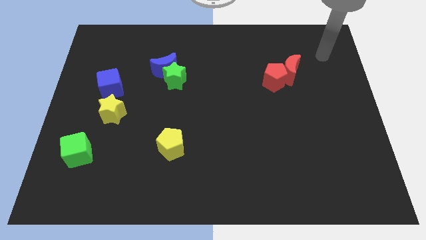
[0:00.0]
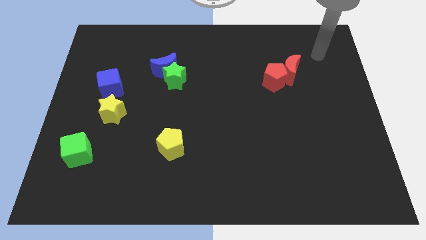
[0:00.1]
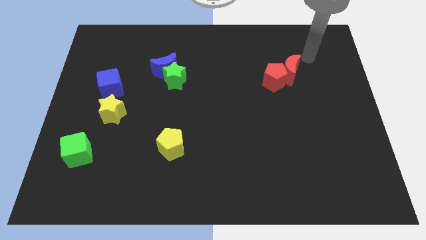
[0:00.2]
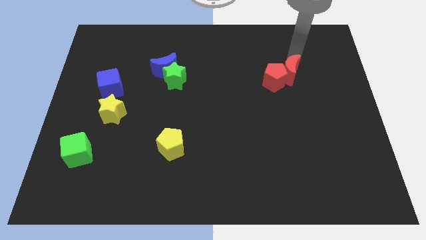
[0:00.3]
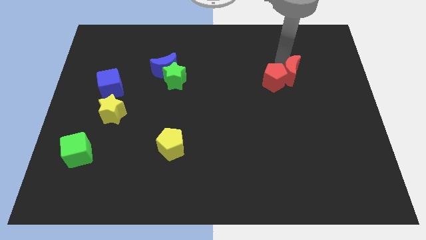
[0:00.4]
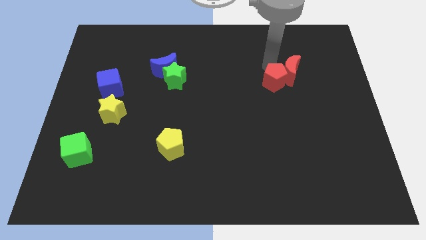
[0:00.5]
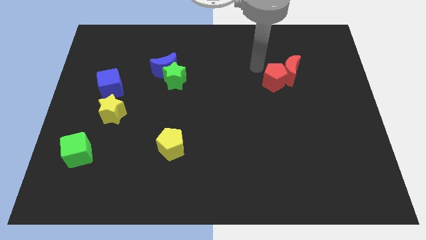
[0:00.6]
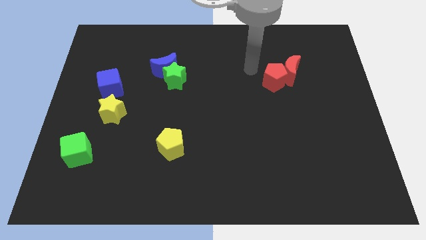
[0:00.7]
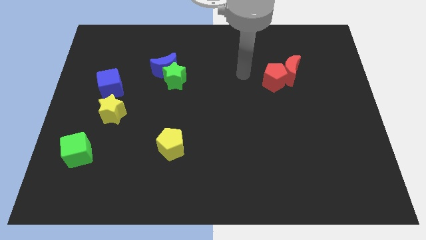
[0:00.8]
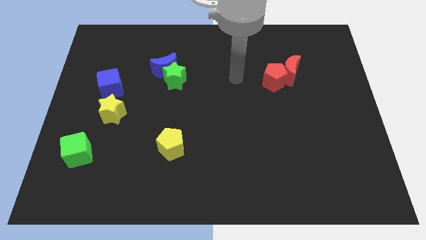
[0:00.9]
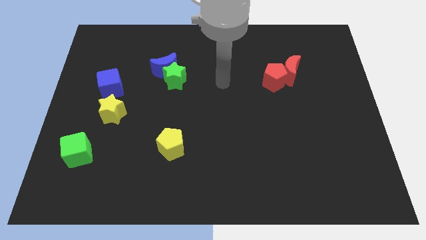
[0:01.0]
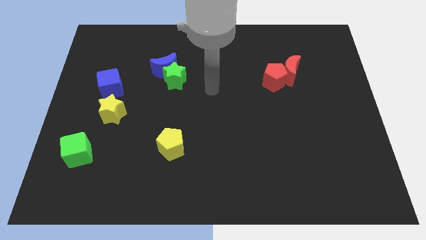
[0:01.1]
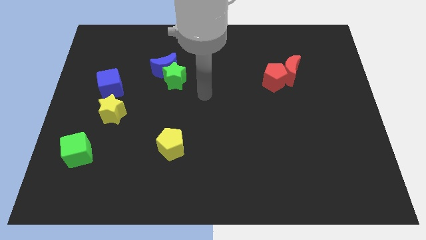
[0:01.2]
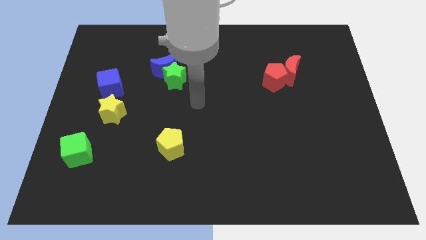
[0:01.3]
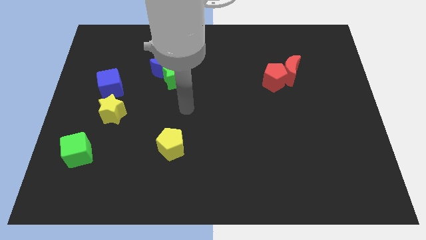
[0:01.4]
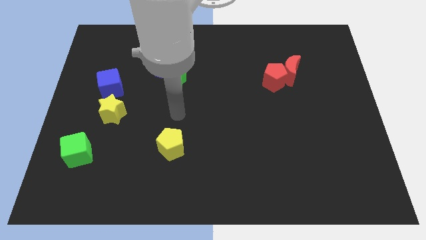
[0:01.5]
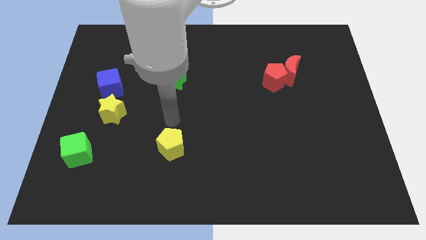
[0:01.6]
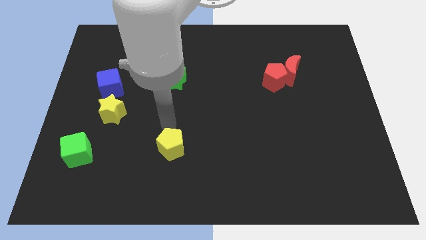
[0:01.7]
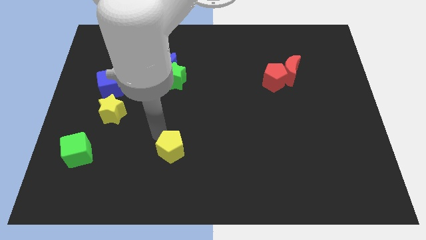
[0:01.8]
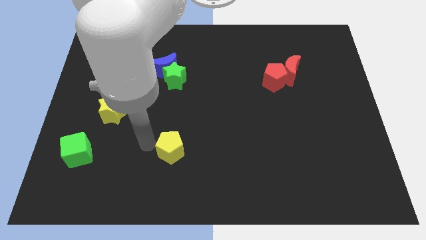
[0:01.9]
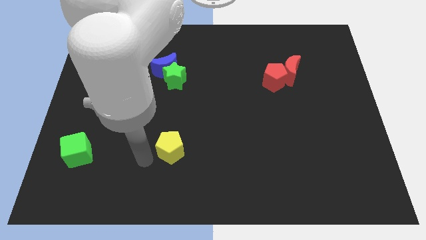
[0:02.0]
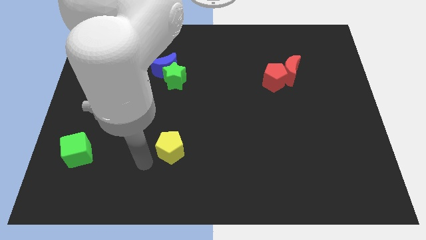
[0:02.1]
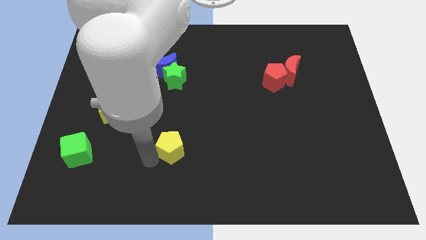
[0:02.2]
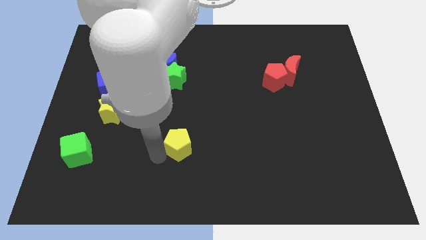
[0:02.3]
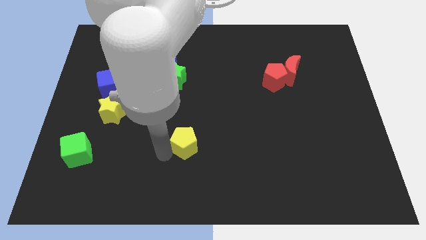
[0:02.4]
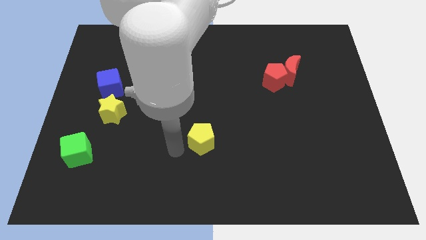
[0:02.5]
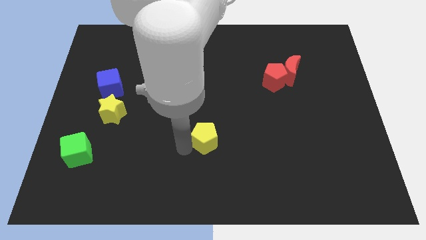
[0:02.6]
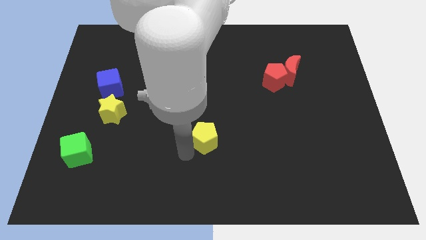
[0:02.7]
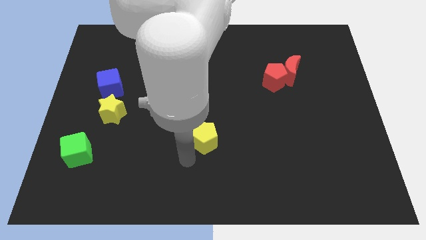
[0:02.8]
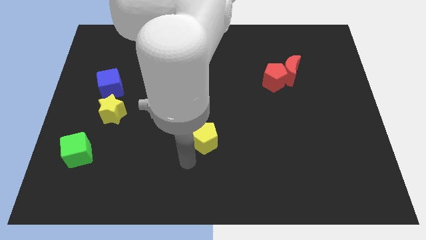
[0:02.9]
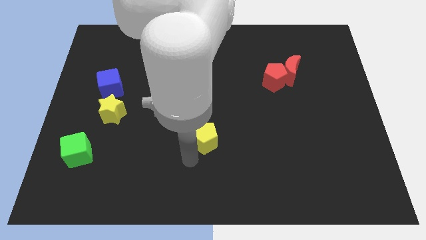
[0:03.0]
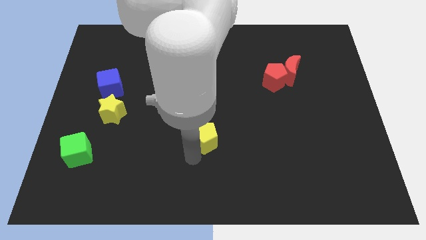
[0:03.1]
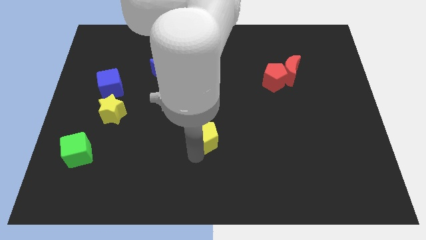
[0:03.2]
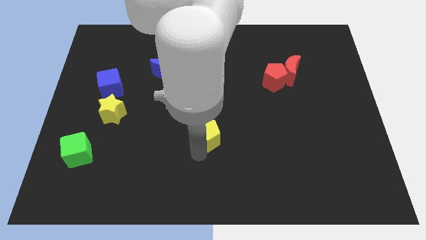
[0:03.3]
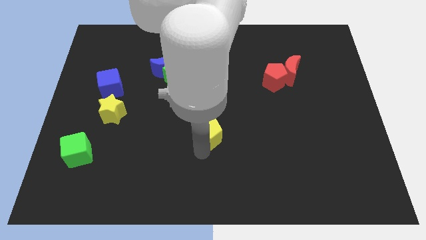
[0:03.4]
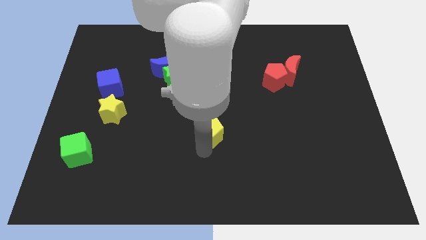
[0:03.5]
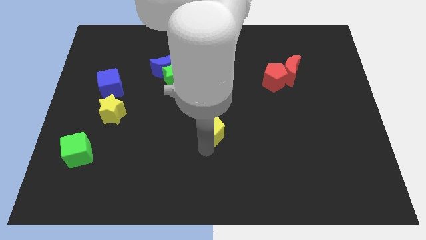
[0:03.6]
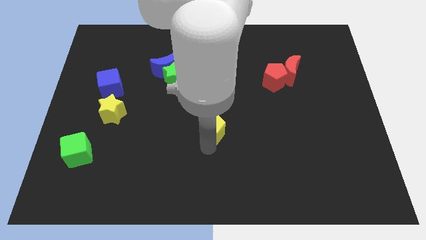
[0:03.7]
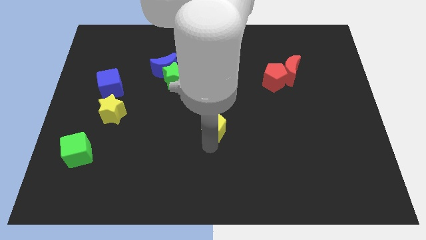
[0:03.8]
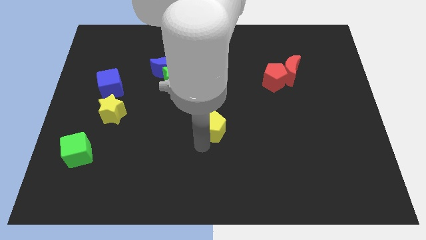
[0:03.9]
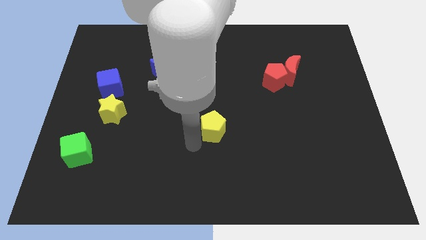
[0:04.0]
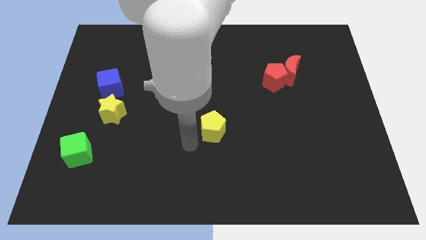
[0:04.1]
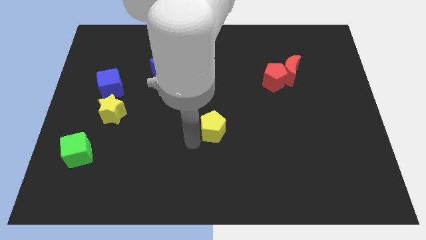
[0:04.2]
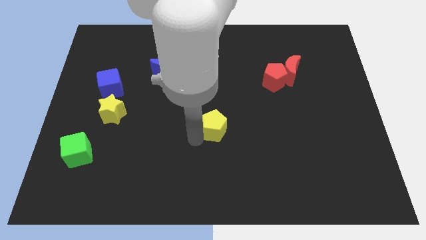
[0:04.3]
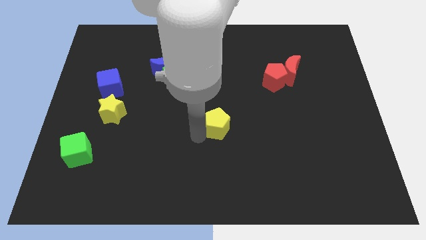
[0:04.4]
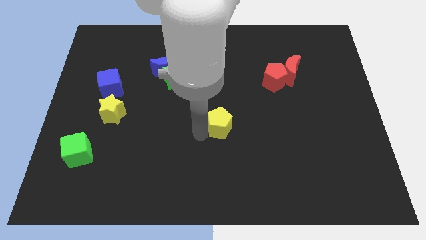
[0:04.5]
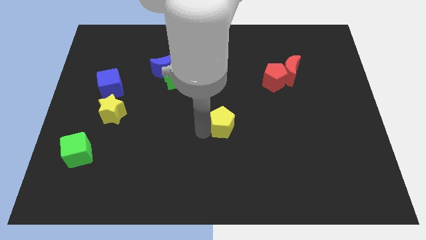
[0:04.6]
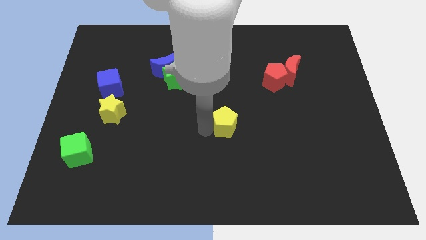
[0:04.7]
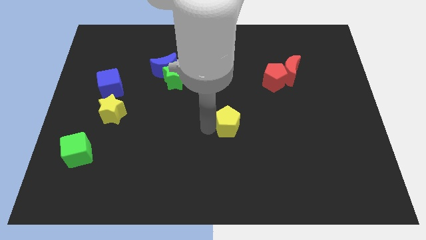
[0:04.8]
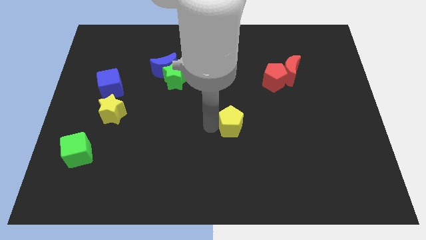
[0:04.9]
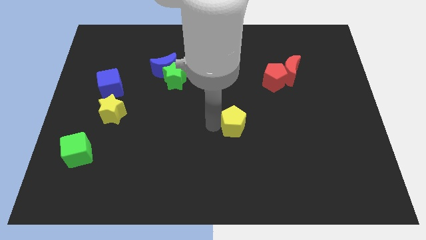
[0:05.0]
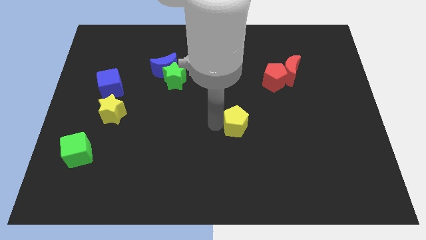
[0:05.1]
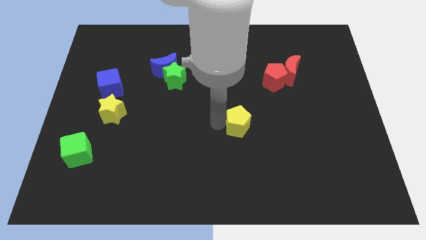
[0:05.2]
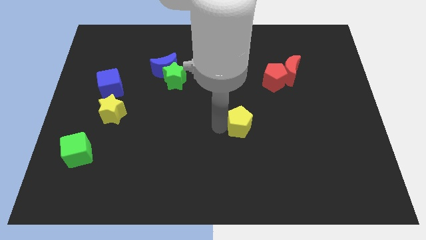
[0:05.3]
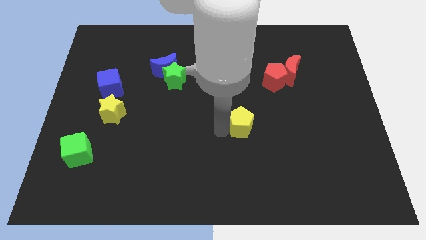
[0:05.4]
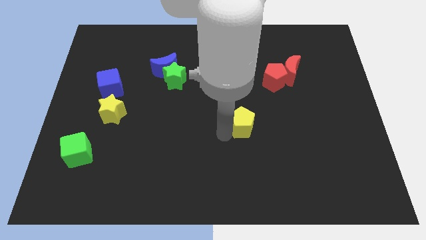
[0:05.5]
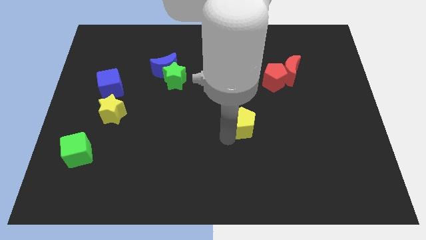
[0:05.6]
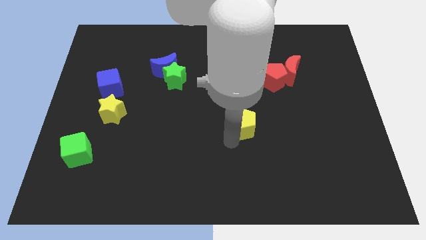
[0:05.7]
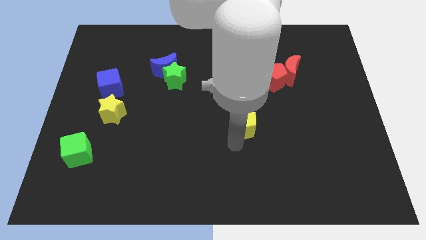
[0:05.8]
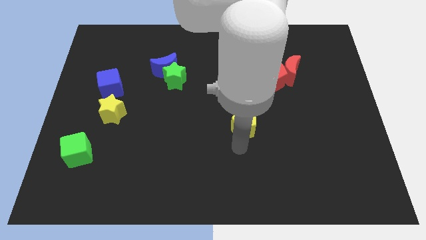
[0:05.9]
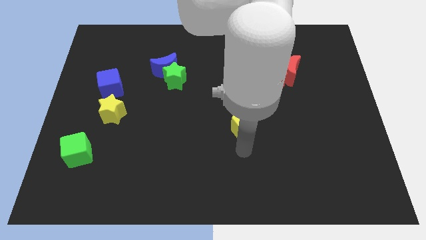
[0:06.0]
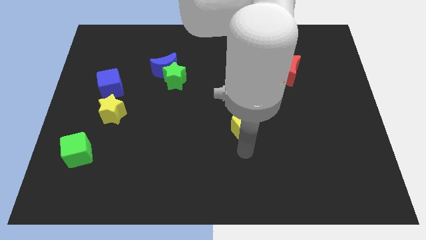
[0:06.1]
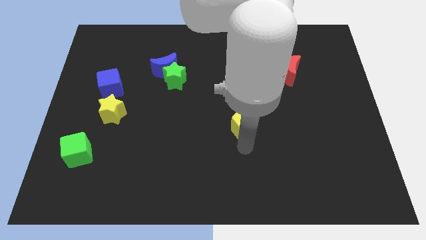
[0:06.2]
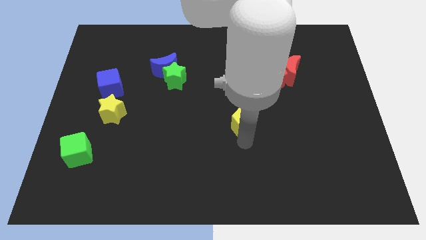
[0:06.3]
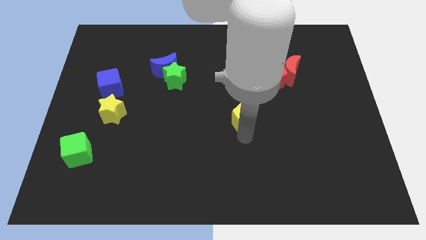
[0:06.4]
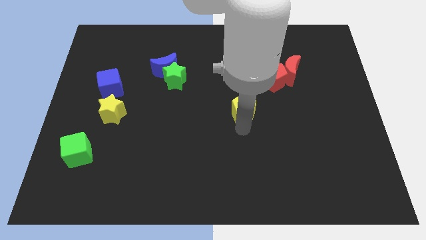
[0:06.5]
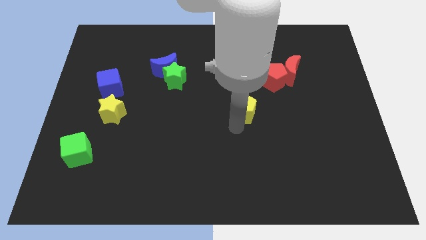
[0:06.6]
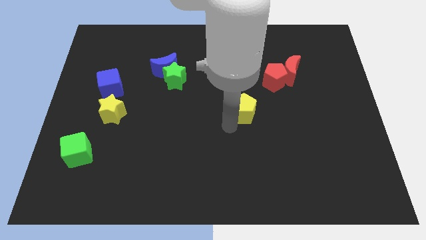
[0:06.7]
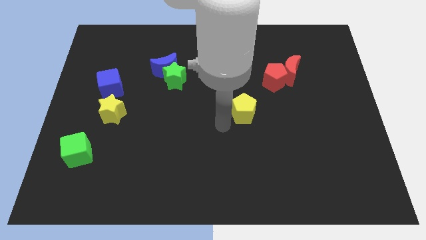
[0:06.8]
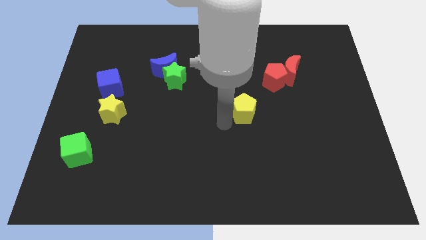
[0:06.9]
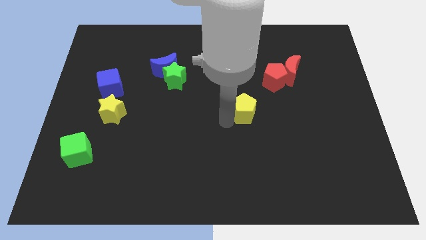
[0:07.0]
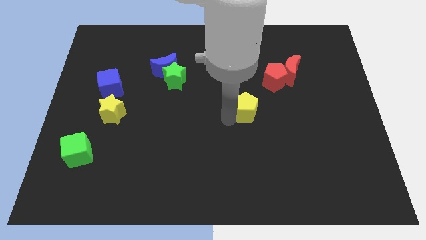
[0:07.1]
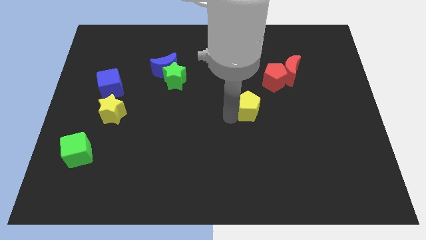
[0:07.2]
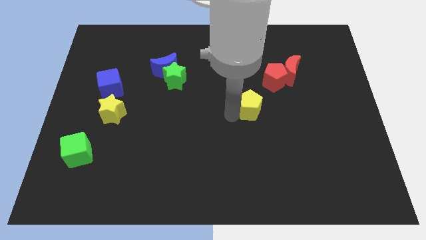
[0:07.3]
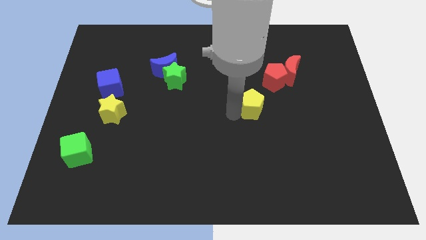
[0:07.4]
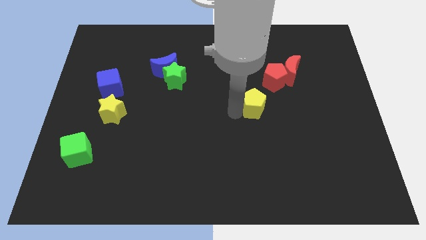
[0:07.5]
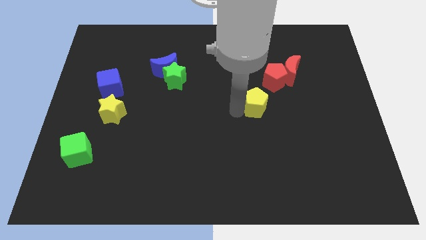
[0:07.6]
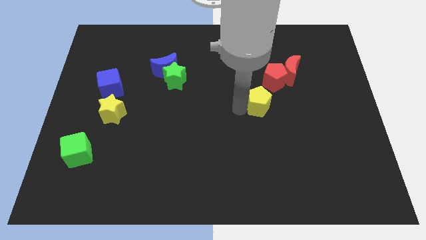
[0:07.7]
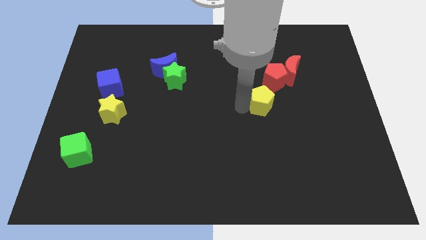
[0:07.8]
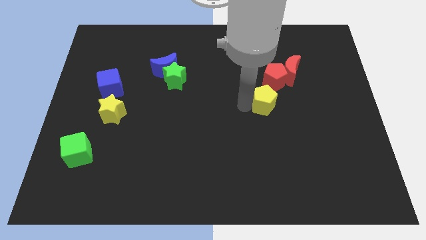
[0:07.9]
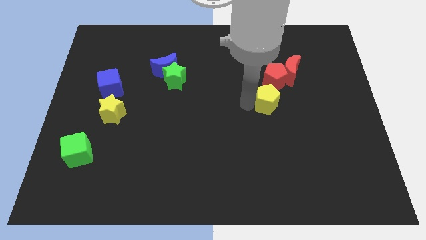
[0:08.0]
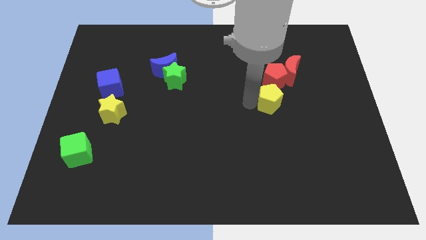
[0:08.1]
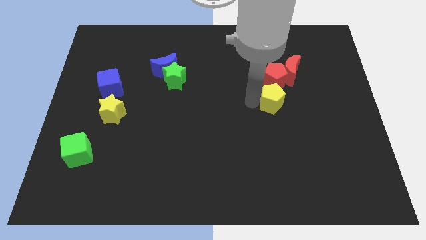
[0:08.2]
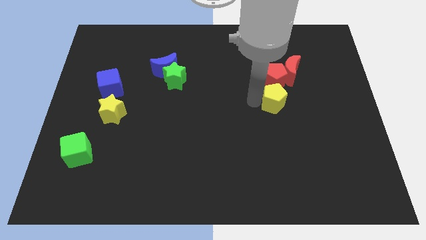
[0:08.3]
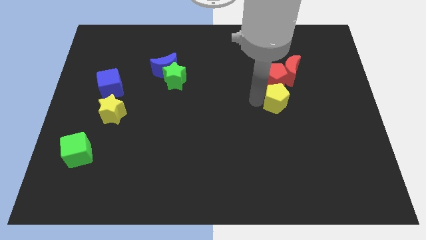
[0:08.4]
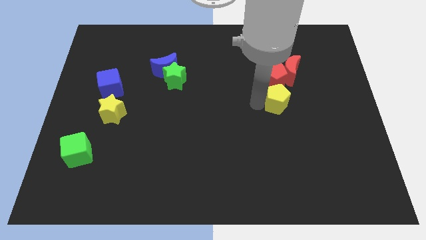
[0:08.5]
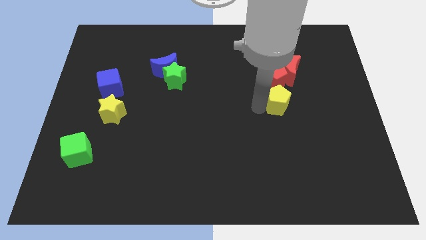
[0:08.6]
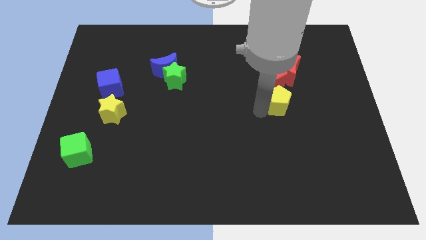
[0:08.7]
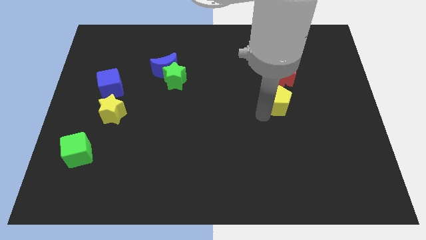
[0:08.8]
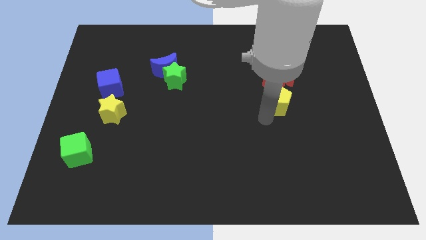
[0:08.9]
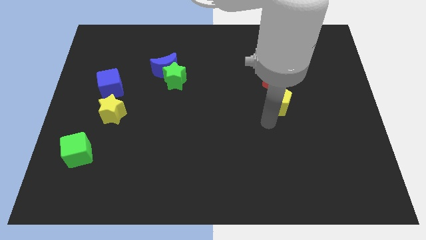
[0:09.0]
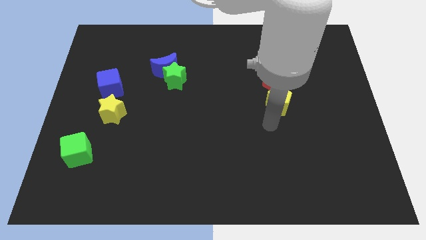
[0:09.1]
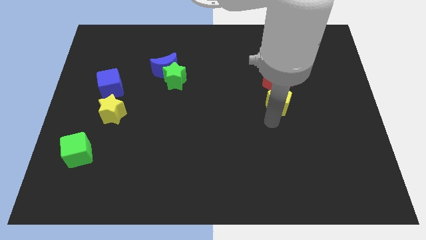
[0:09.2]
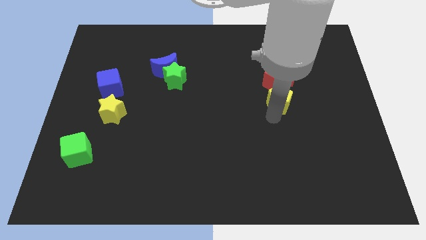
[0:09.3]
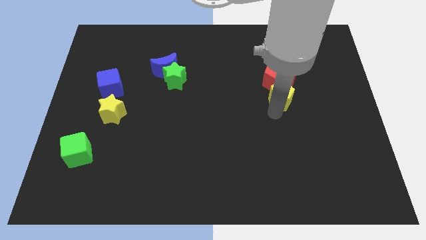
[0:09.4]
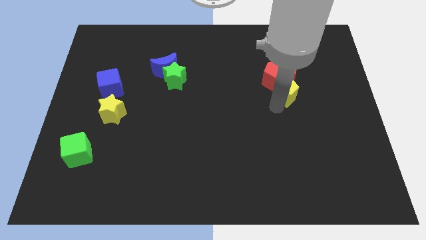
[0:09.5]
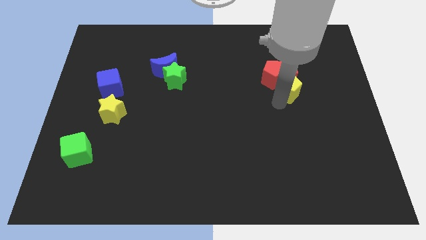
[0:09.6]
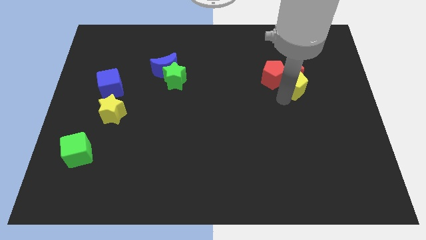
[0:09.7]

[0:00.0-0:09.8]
slide the yellow pentagon close to the red moon
